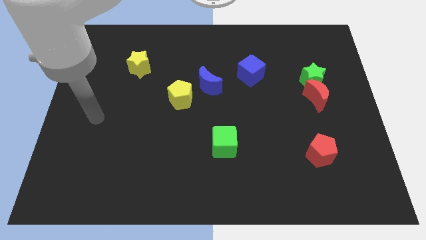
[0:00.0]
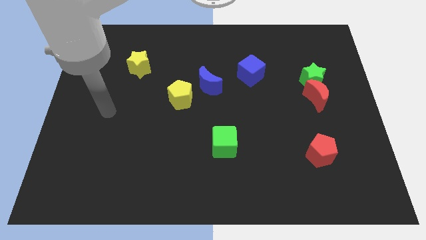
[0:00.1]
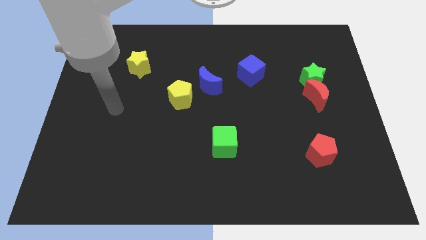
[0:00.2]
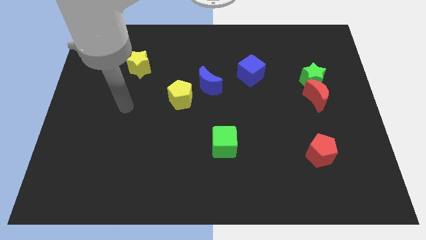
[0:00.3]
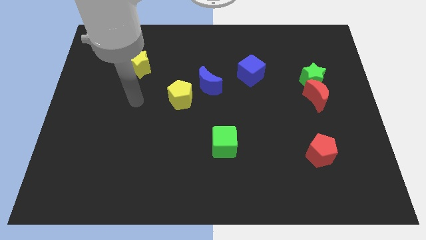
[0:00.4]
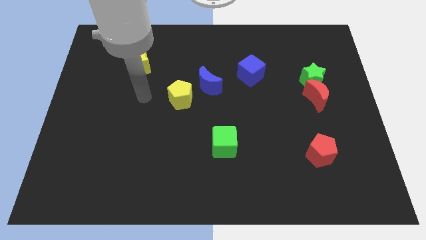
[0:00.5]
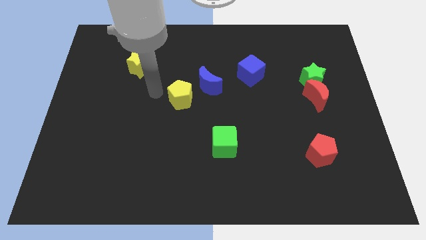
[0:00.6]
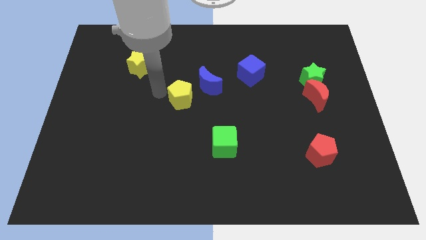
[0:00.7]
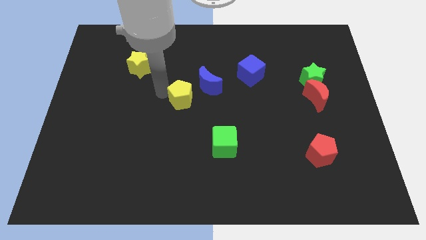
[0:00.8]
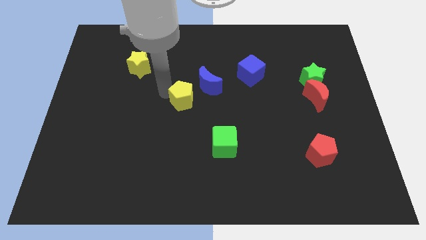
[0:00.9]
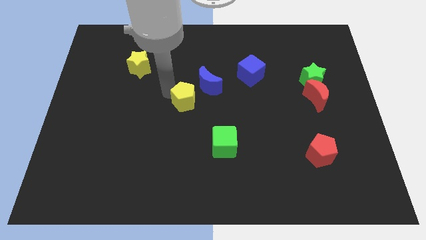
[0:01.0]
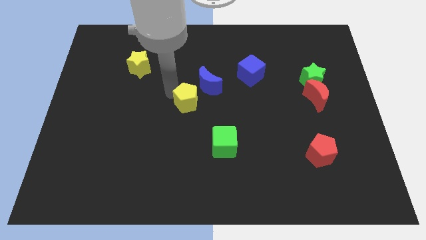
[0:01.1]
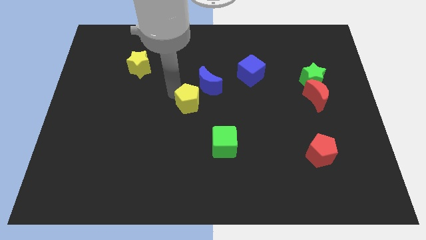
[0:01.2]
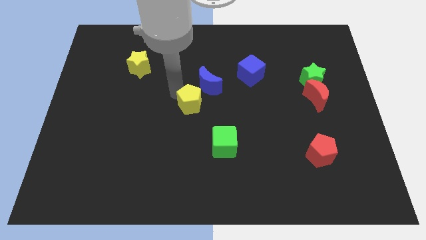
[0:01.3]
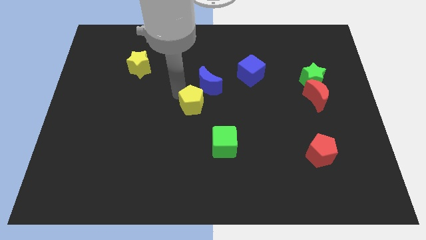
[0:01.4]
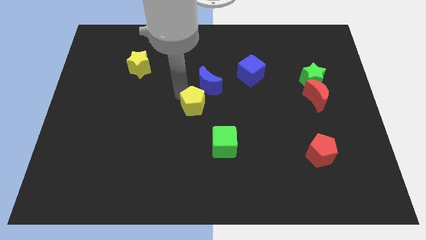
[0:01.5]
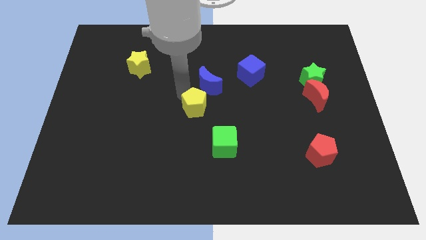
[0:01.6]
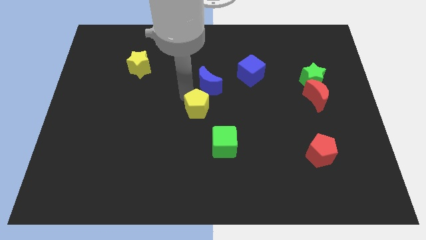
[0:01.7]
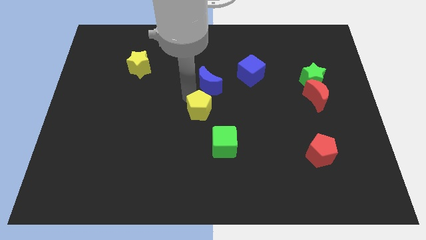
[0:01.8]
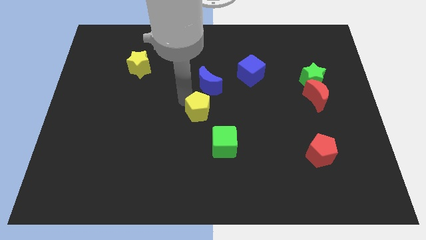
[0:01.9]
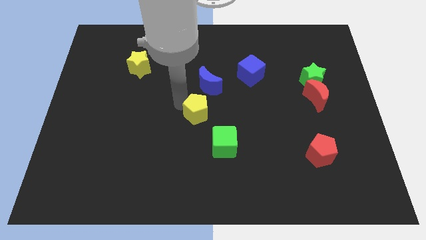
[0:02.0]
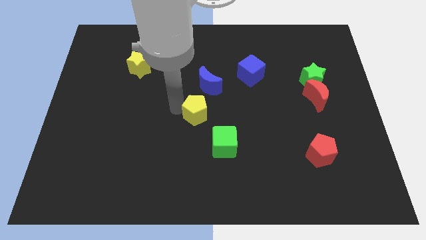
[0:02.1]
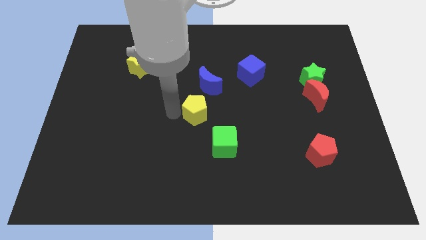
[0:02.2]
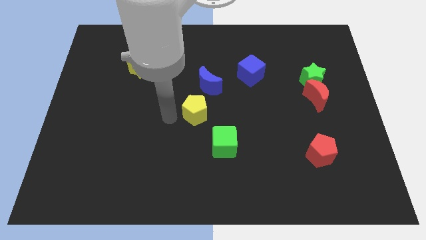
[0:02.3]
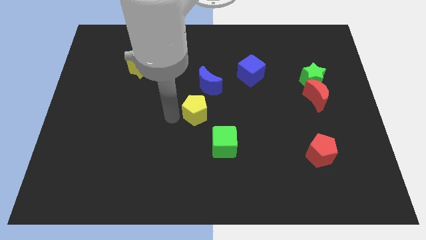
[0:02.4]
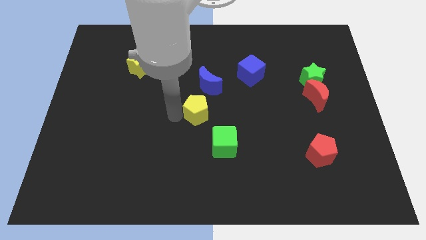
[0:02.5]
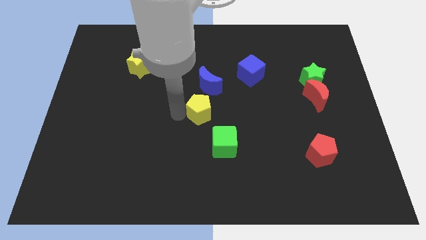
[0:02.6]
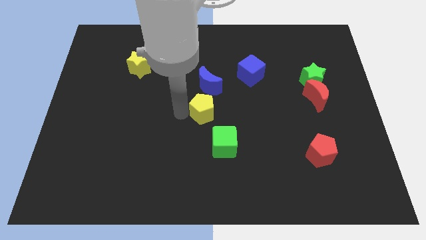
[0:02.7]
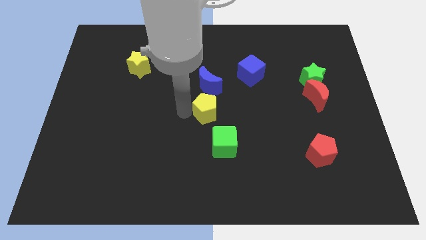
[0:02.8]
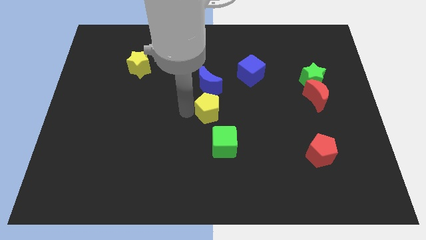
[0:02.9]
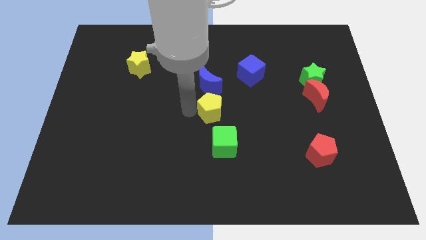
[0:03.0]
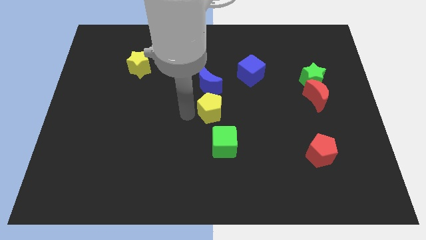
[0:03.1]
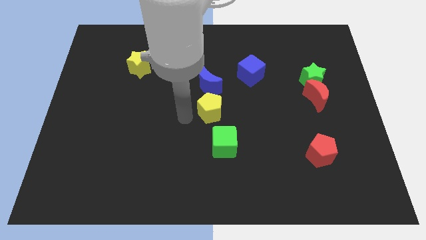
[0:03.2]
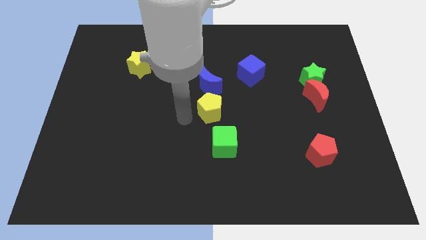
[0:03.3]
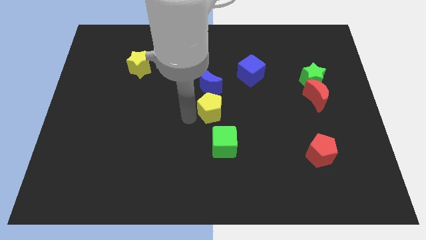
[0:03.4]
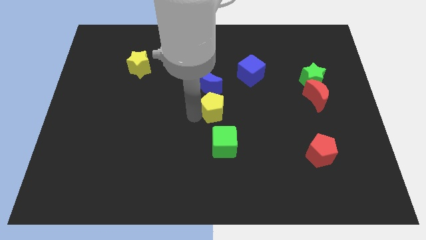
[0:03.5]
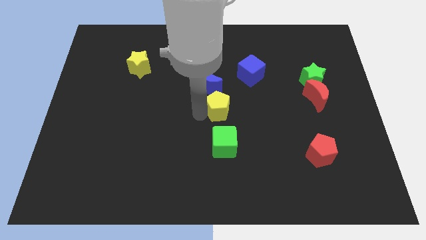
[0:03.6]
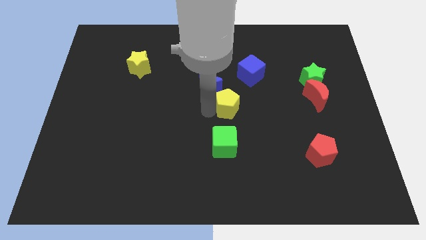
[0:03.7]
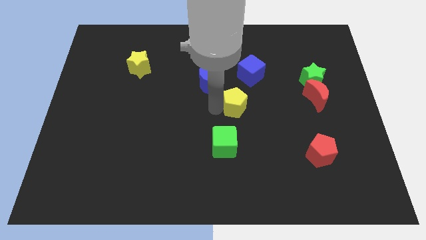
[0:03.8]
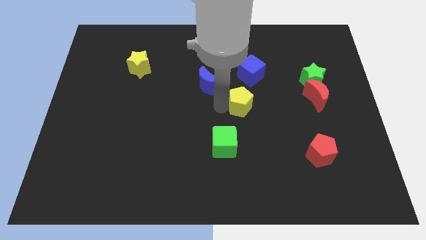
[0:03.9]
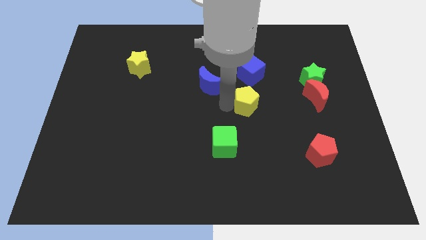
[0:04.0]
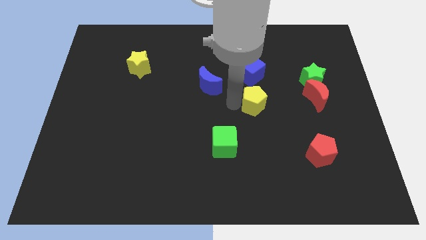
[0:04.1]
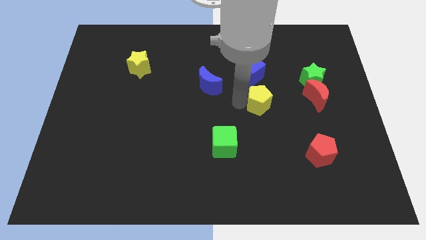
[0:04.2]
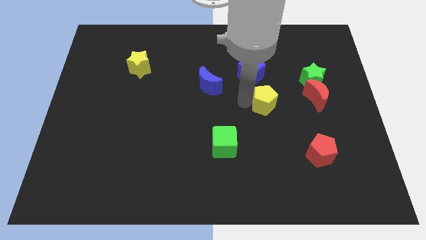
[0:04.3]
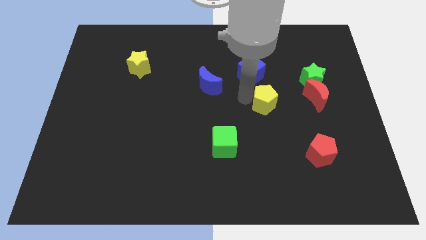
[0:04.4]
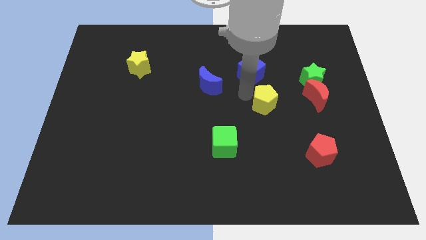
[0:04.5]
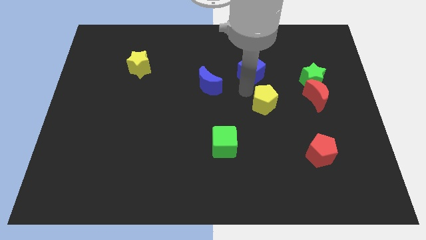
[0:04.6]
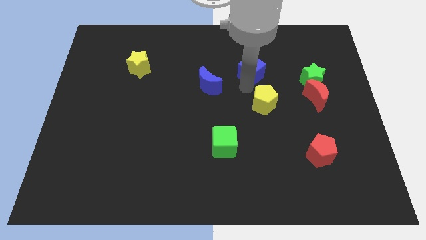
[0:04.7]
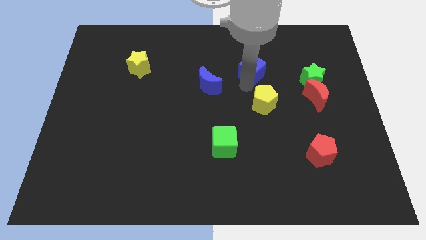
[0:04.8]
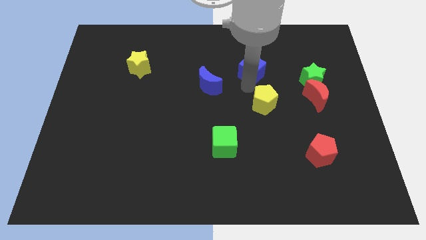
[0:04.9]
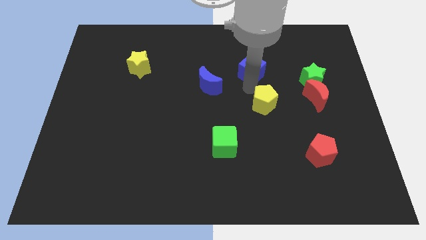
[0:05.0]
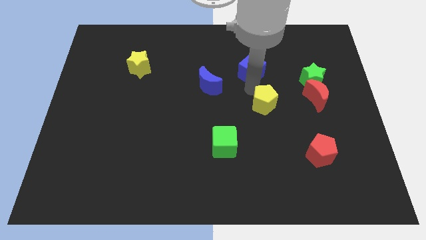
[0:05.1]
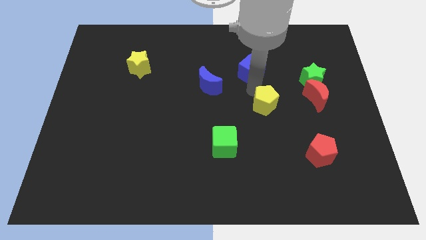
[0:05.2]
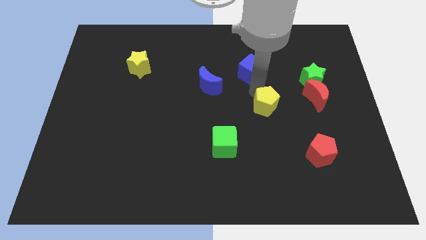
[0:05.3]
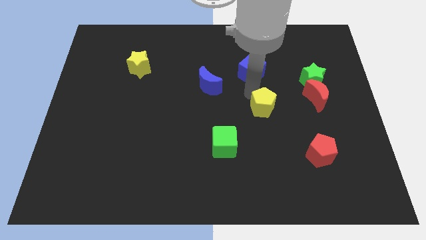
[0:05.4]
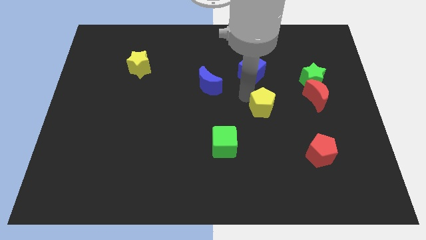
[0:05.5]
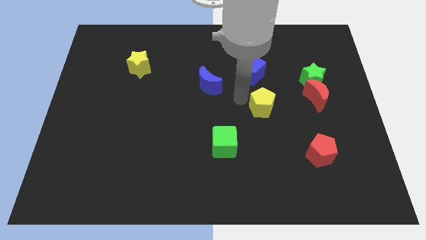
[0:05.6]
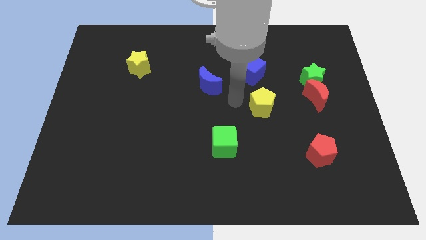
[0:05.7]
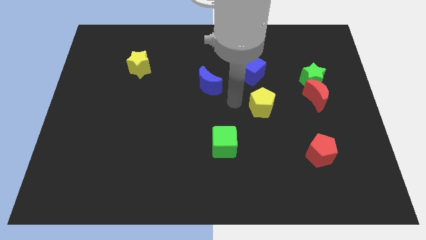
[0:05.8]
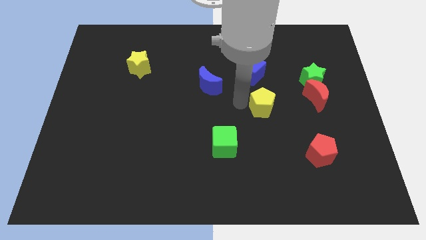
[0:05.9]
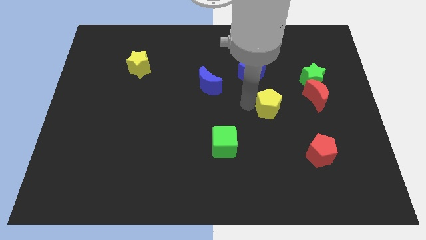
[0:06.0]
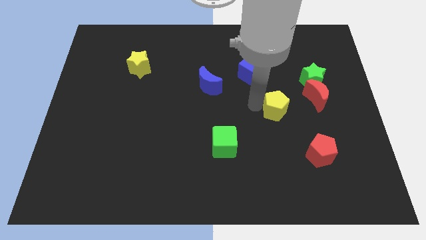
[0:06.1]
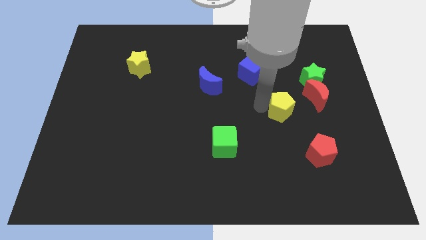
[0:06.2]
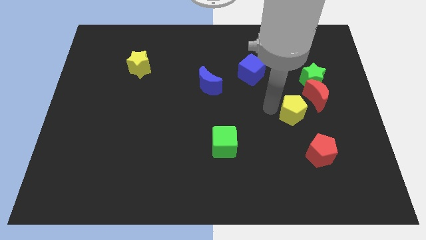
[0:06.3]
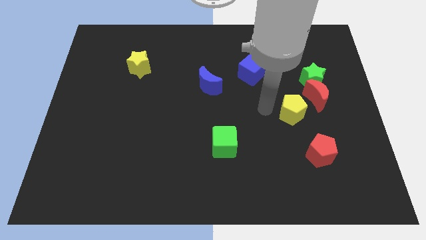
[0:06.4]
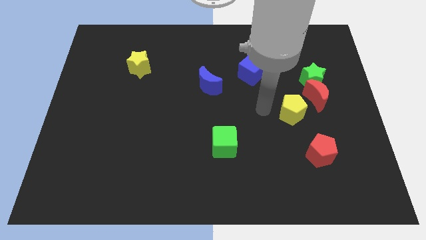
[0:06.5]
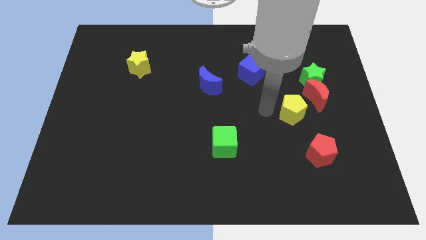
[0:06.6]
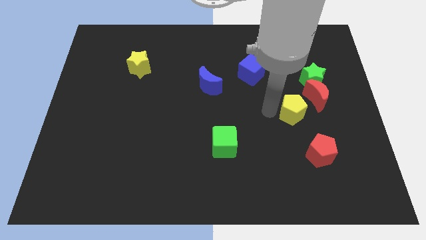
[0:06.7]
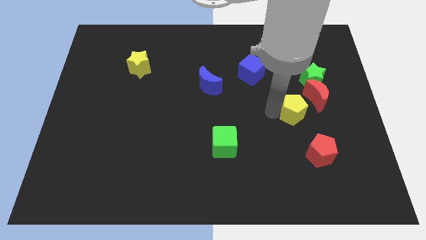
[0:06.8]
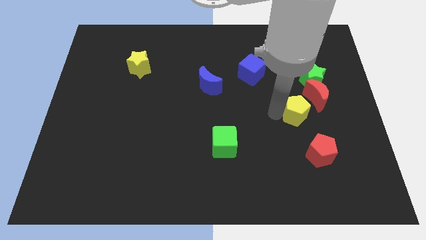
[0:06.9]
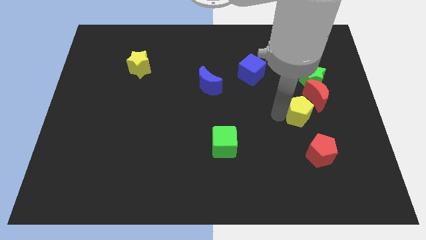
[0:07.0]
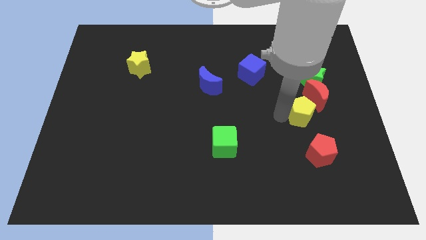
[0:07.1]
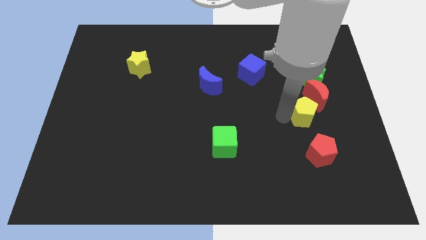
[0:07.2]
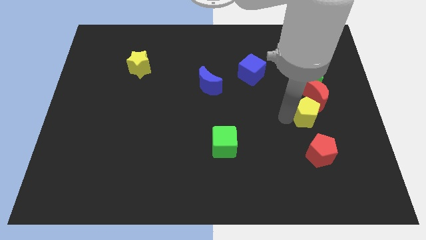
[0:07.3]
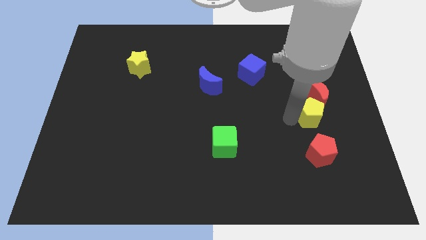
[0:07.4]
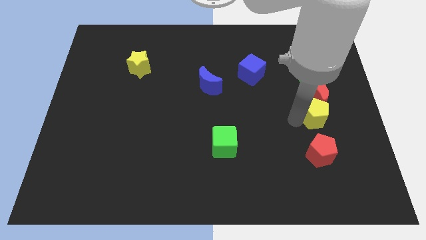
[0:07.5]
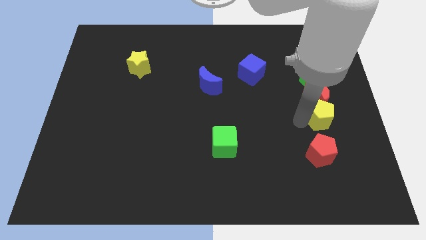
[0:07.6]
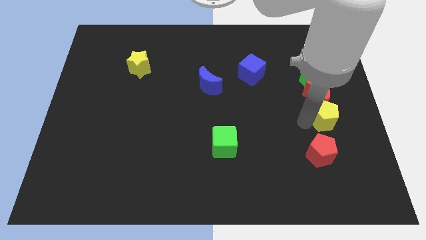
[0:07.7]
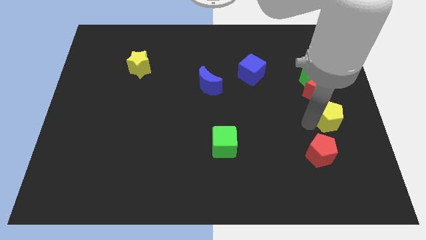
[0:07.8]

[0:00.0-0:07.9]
slide the yellow pentagon to the right side
